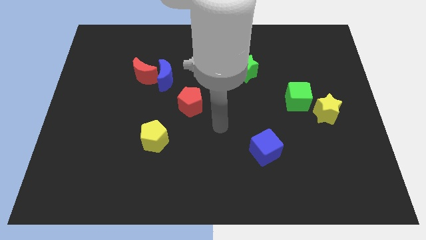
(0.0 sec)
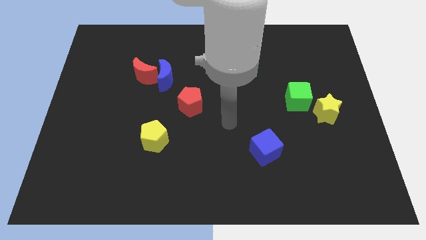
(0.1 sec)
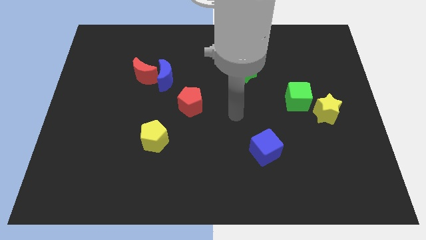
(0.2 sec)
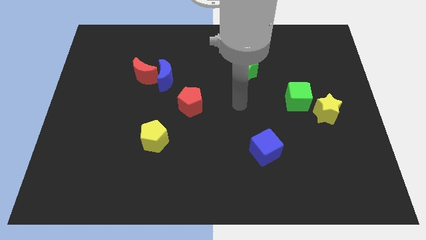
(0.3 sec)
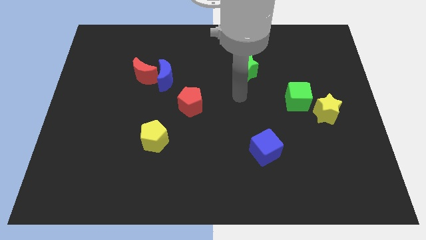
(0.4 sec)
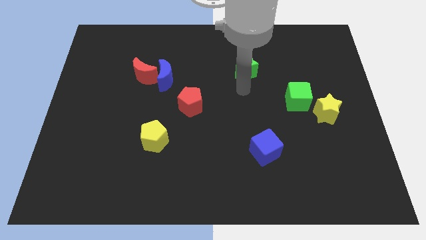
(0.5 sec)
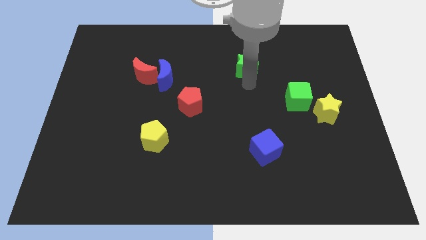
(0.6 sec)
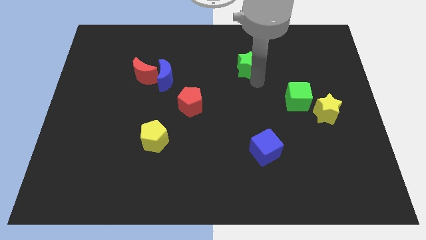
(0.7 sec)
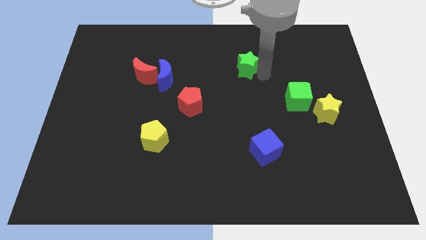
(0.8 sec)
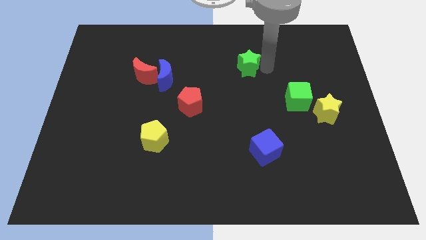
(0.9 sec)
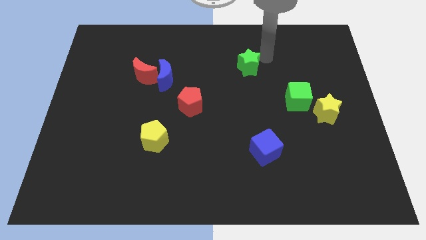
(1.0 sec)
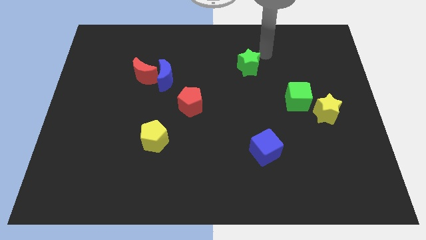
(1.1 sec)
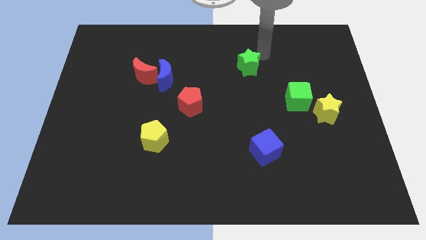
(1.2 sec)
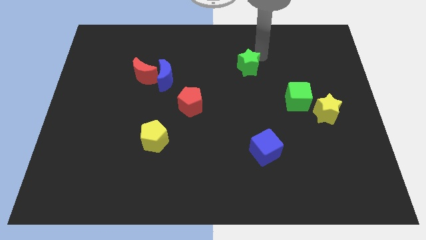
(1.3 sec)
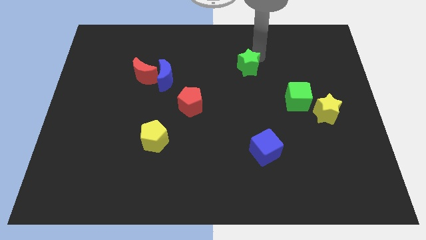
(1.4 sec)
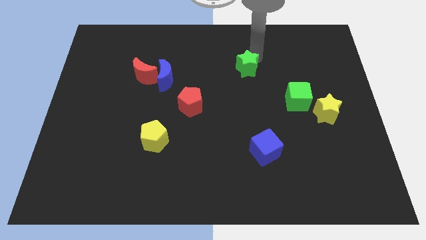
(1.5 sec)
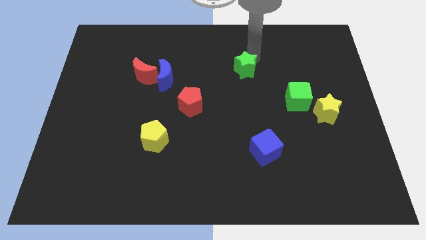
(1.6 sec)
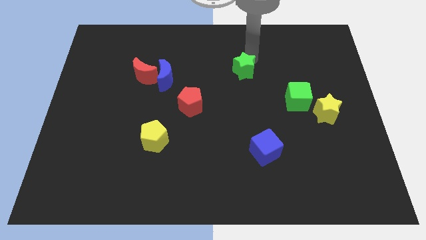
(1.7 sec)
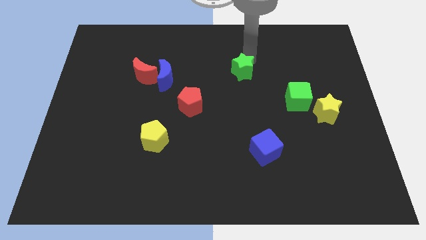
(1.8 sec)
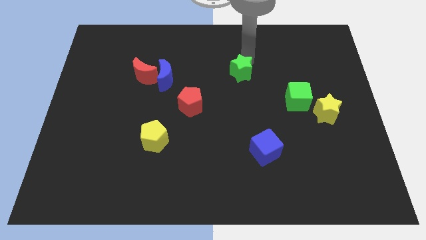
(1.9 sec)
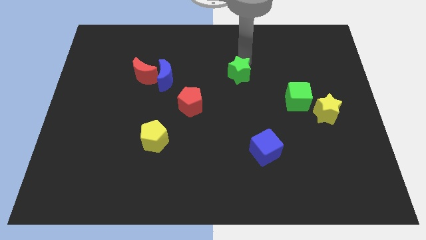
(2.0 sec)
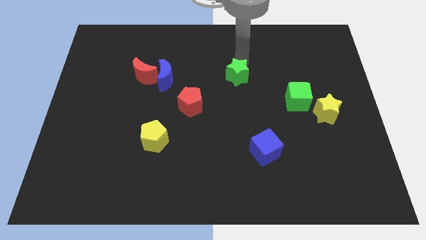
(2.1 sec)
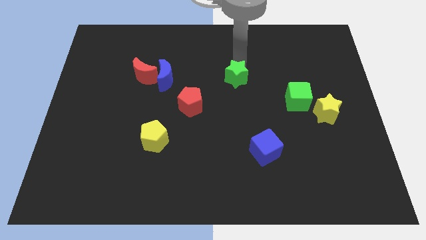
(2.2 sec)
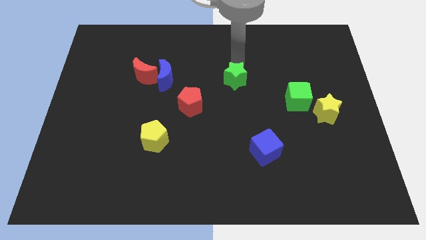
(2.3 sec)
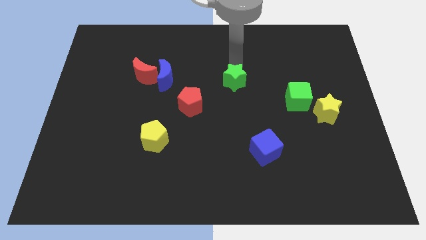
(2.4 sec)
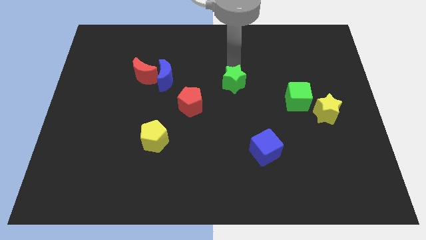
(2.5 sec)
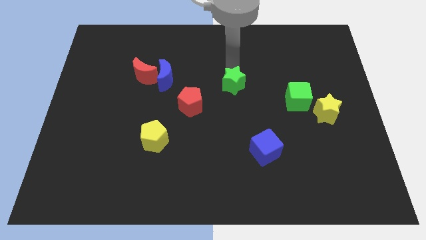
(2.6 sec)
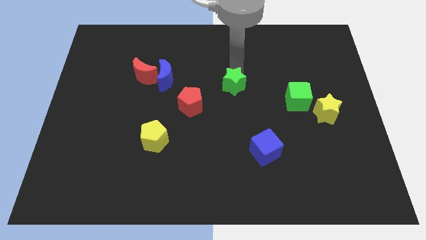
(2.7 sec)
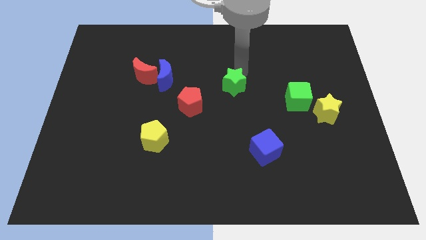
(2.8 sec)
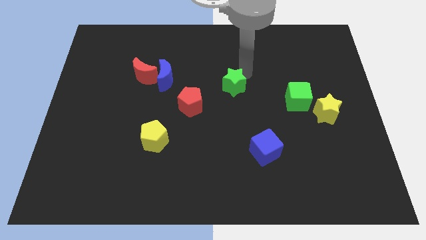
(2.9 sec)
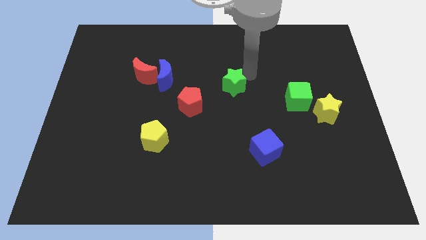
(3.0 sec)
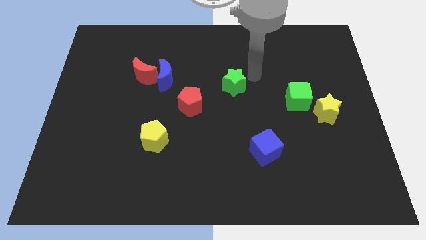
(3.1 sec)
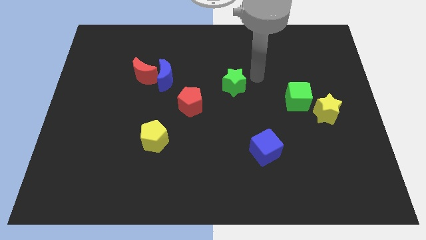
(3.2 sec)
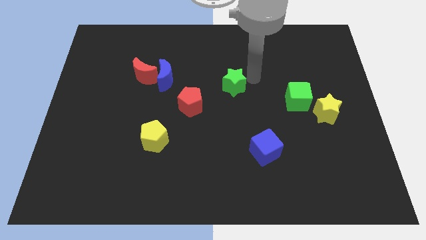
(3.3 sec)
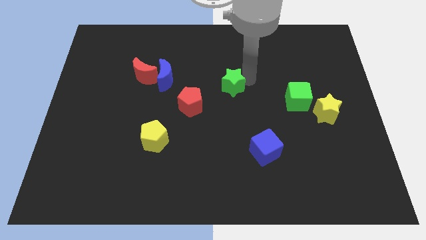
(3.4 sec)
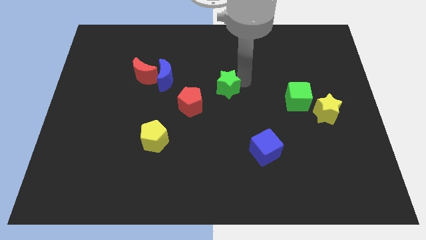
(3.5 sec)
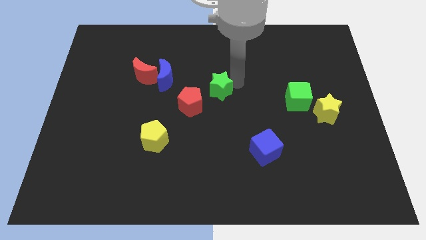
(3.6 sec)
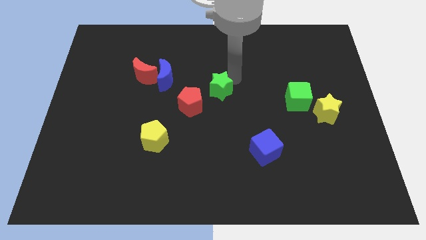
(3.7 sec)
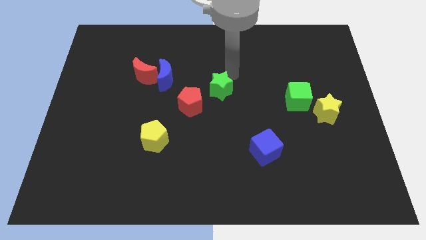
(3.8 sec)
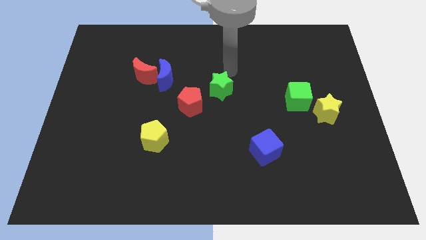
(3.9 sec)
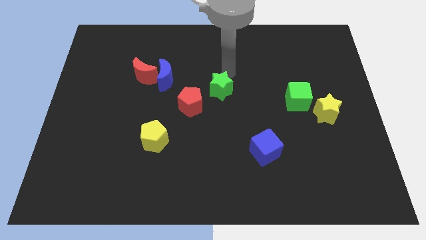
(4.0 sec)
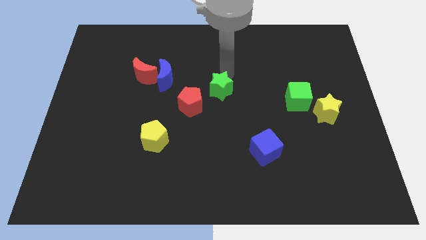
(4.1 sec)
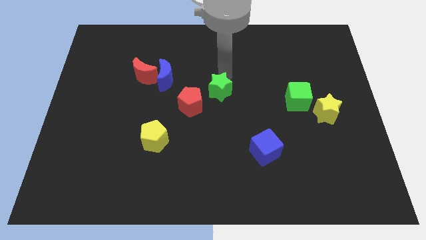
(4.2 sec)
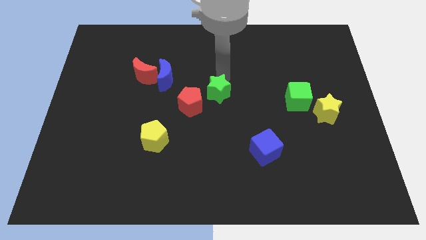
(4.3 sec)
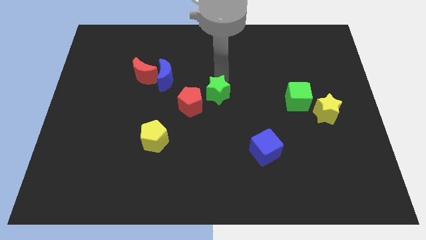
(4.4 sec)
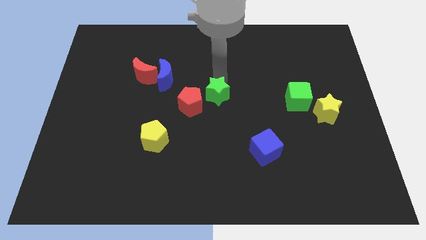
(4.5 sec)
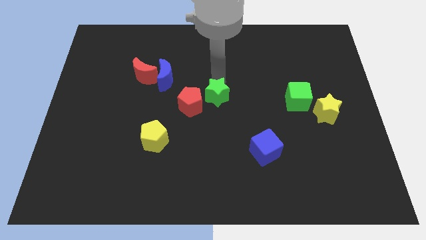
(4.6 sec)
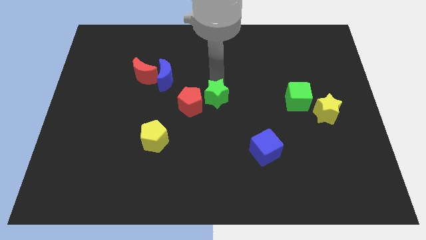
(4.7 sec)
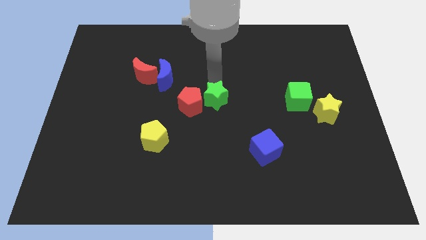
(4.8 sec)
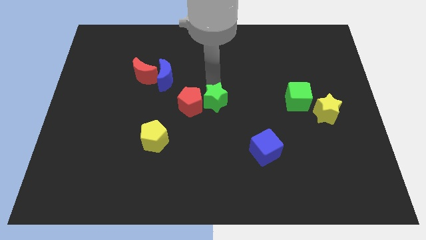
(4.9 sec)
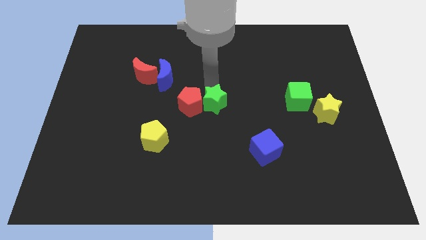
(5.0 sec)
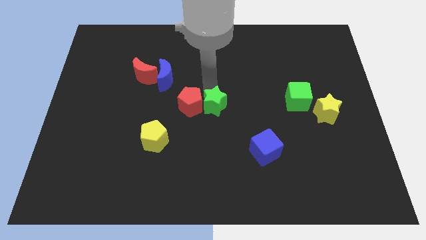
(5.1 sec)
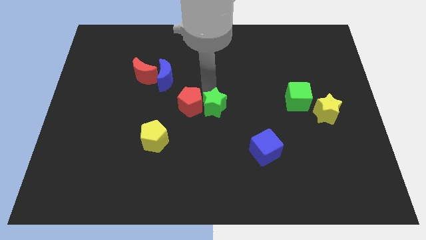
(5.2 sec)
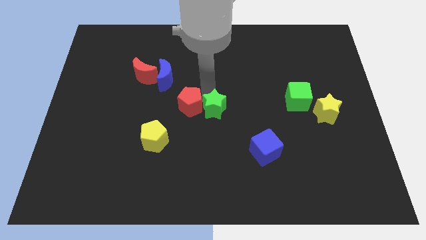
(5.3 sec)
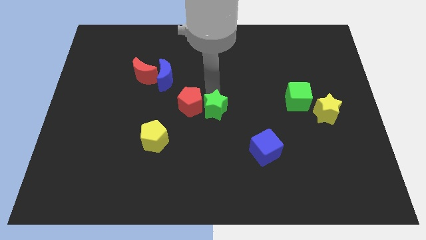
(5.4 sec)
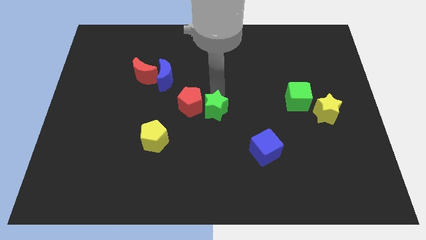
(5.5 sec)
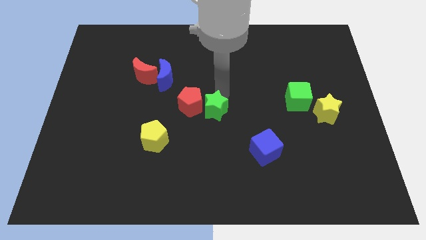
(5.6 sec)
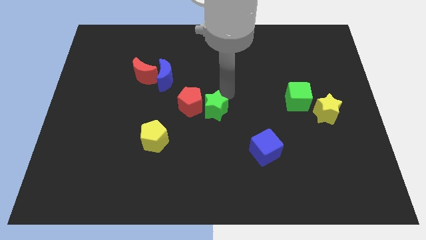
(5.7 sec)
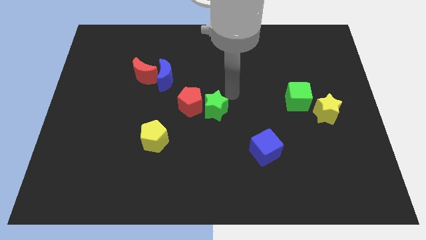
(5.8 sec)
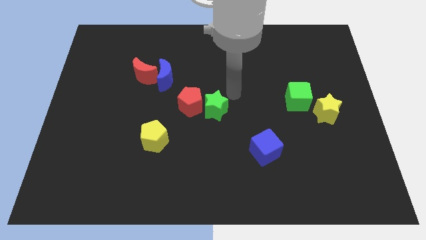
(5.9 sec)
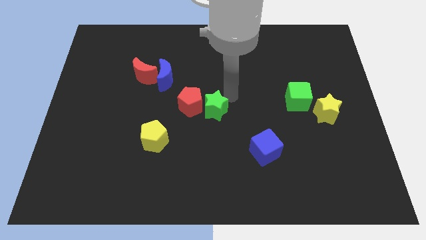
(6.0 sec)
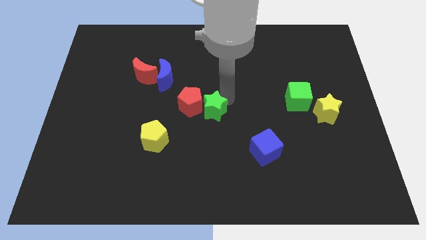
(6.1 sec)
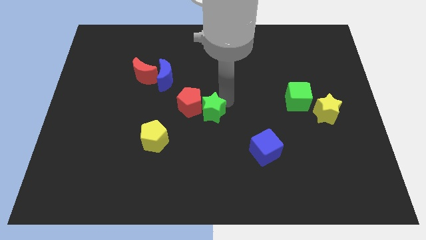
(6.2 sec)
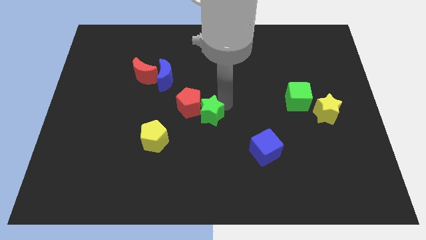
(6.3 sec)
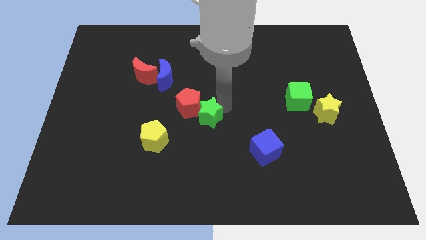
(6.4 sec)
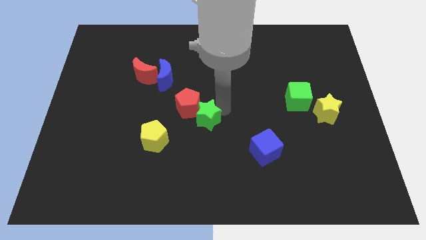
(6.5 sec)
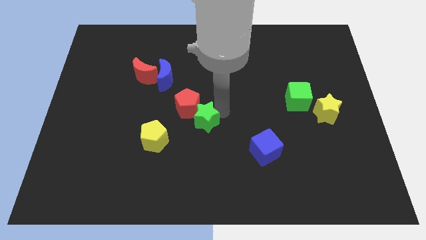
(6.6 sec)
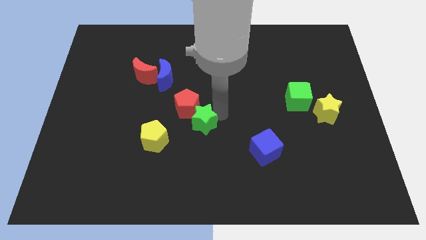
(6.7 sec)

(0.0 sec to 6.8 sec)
slide the green star to the top right of the yellow pentagon
